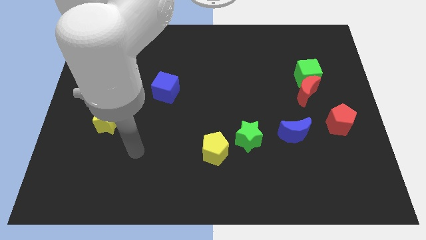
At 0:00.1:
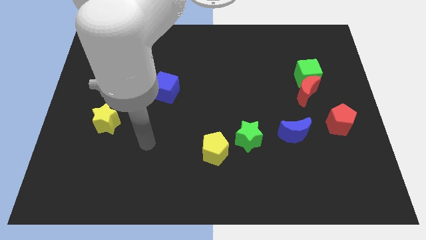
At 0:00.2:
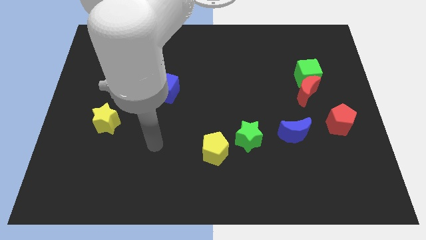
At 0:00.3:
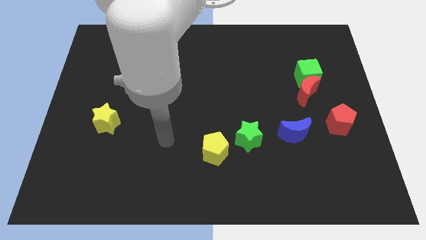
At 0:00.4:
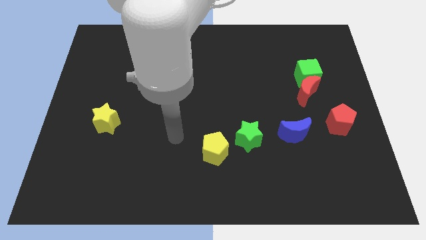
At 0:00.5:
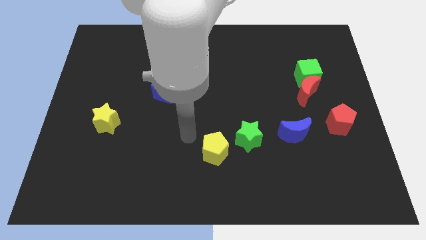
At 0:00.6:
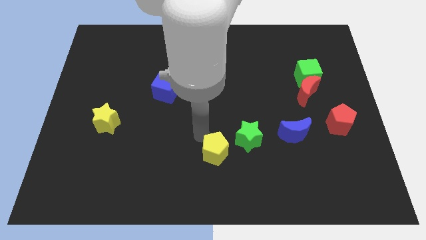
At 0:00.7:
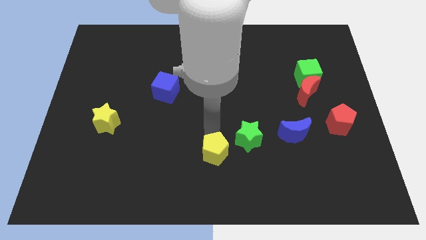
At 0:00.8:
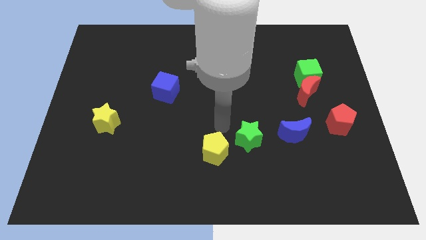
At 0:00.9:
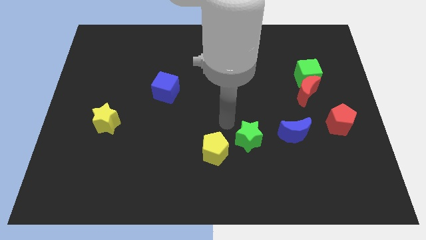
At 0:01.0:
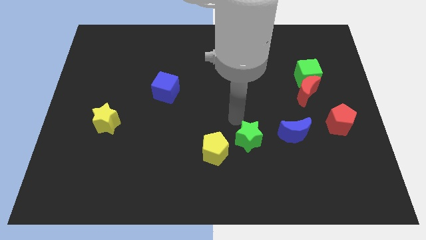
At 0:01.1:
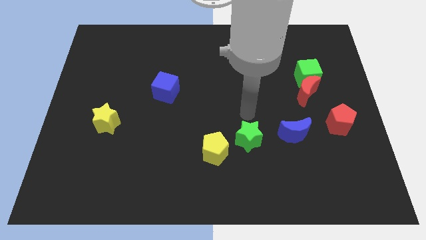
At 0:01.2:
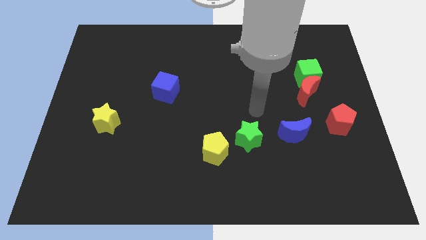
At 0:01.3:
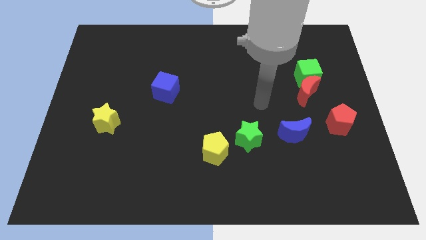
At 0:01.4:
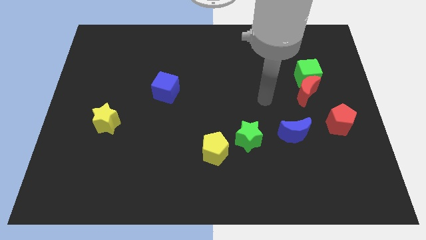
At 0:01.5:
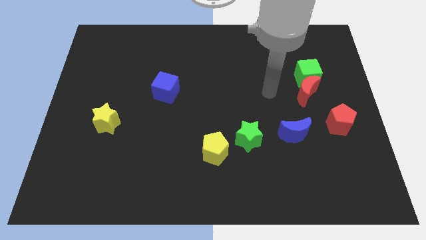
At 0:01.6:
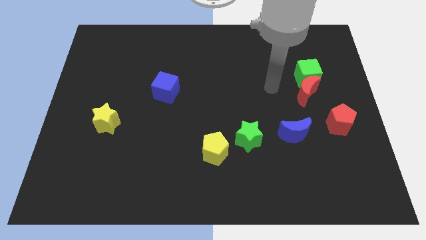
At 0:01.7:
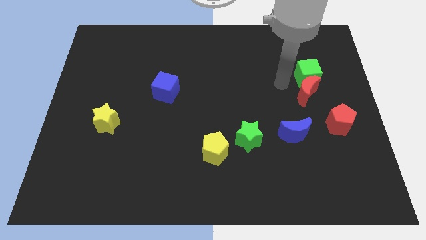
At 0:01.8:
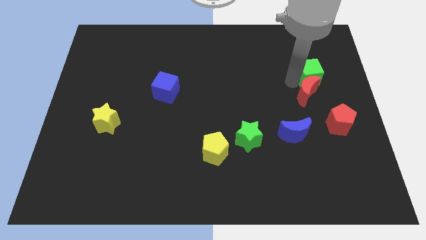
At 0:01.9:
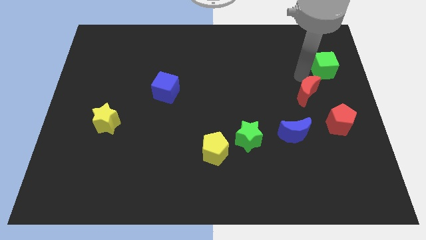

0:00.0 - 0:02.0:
separate the red moon from the green cube

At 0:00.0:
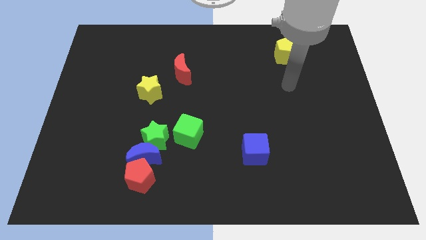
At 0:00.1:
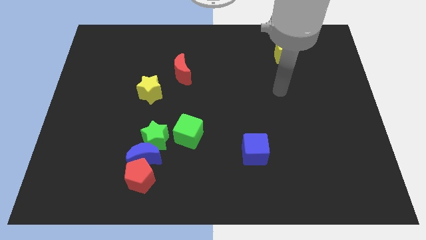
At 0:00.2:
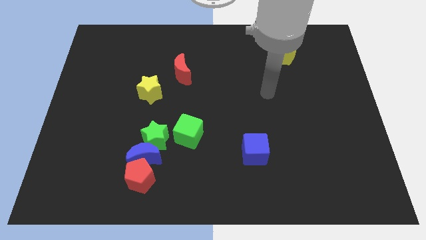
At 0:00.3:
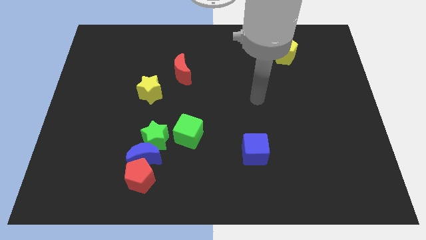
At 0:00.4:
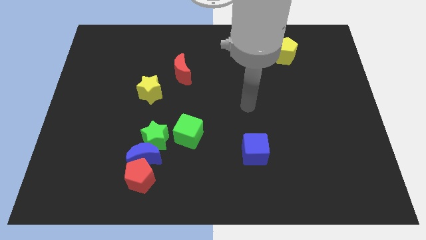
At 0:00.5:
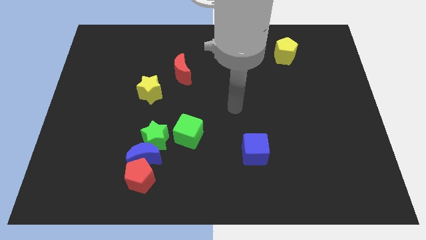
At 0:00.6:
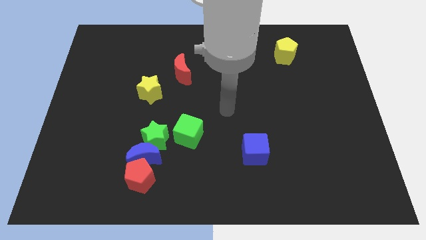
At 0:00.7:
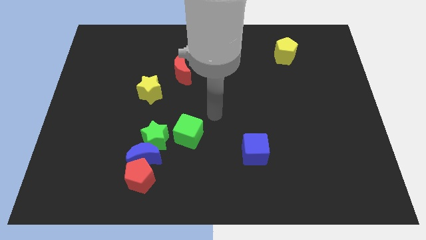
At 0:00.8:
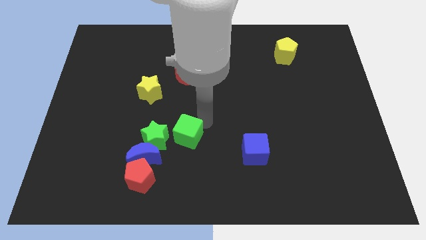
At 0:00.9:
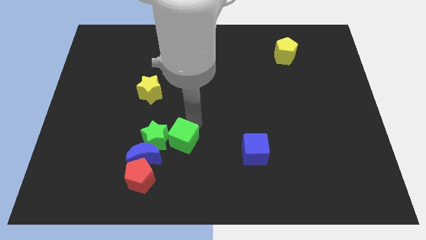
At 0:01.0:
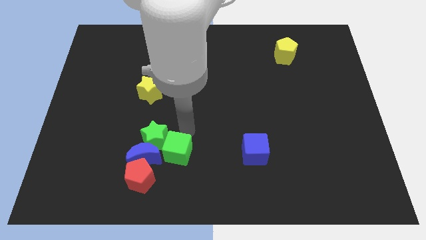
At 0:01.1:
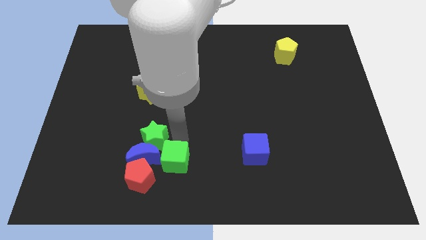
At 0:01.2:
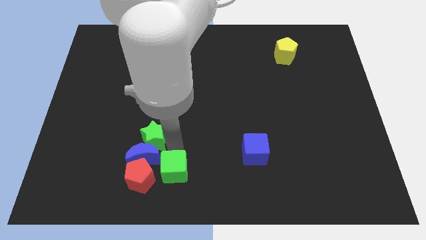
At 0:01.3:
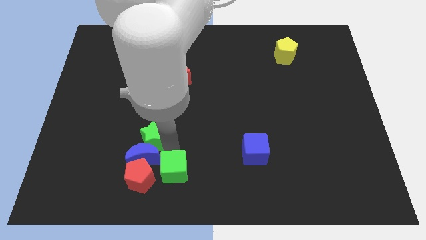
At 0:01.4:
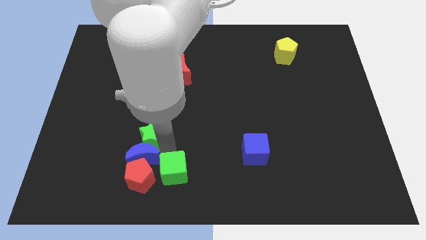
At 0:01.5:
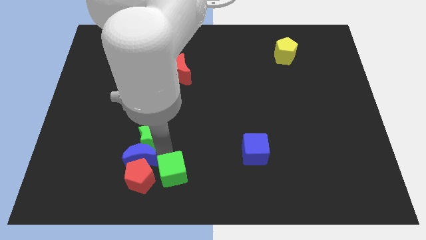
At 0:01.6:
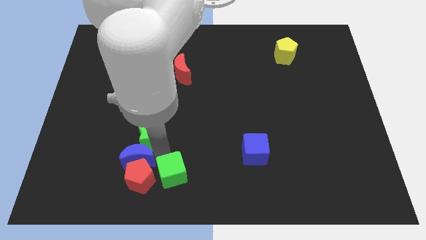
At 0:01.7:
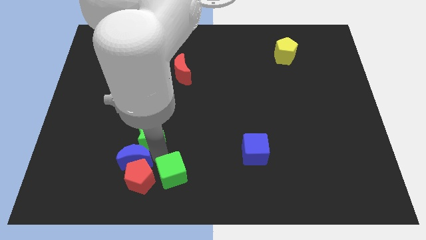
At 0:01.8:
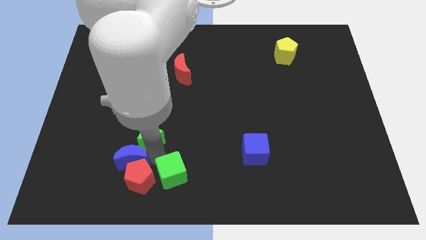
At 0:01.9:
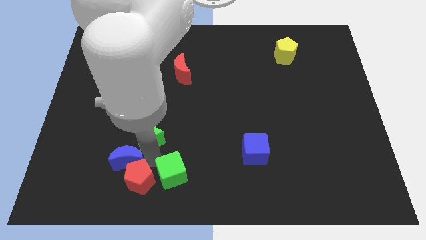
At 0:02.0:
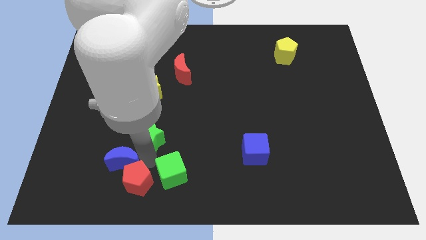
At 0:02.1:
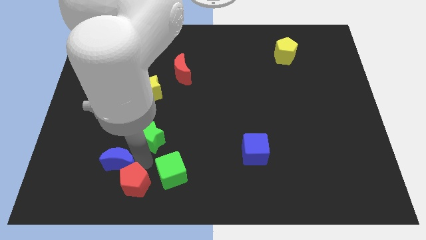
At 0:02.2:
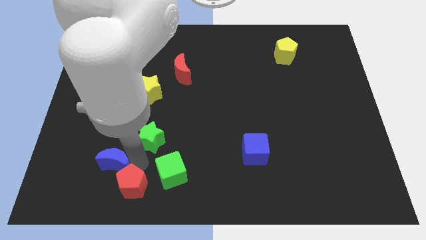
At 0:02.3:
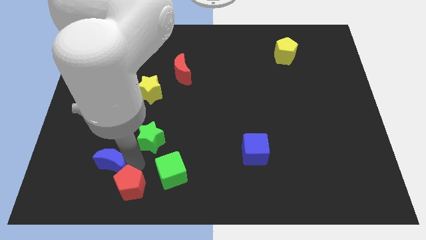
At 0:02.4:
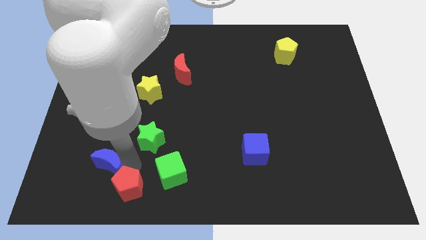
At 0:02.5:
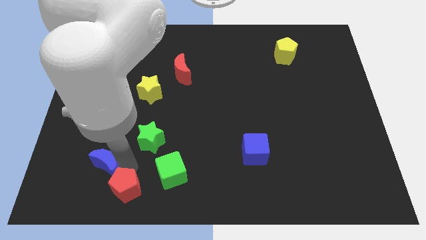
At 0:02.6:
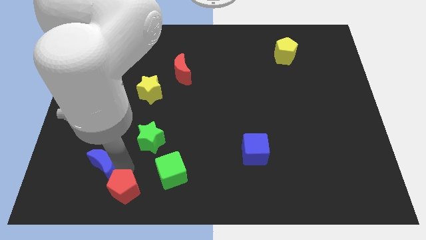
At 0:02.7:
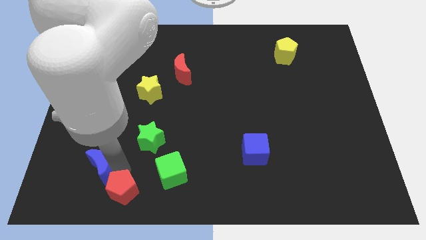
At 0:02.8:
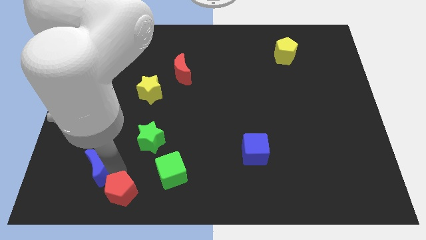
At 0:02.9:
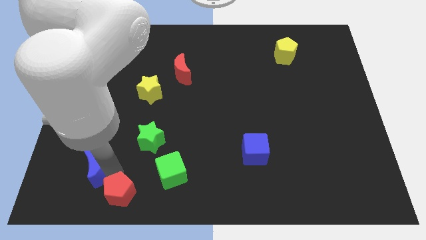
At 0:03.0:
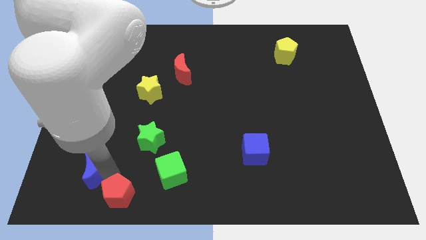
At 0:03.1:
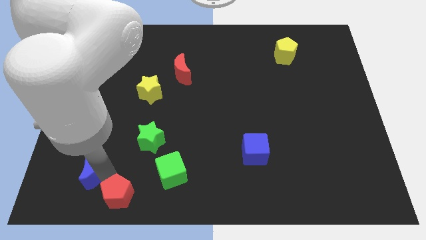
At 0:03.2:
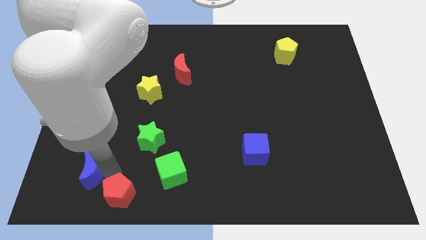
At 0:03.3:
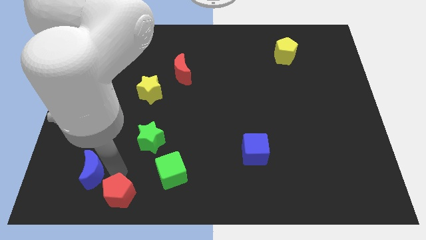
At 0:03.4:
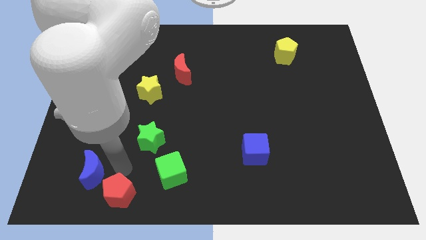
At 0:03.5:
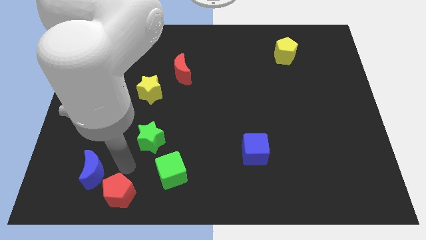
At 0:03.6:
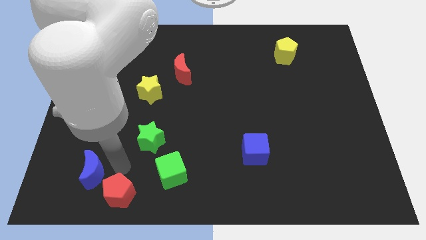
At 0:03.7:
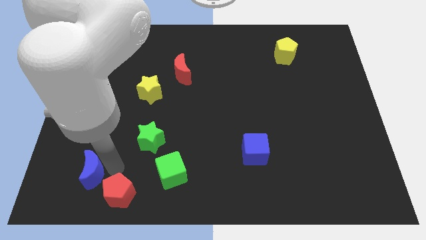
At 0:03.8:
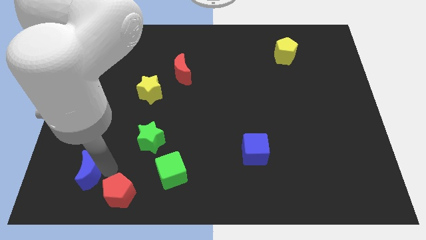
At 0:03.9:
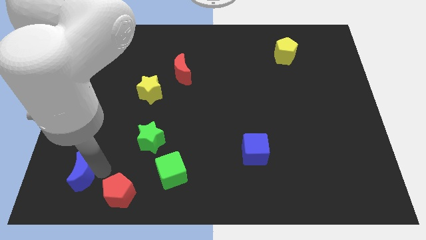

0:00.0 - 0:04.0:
move the blue moon away from the red pentagon and green star

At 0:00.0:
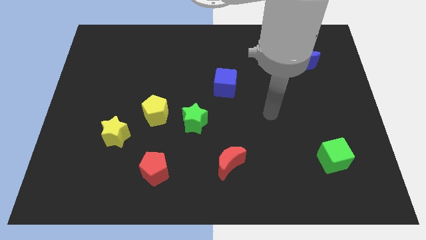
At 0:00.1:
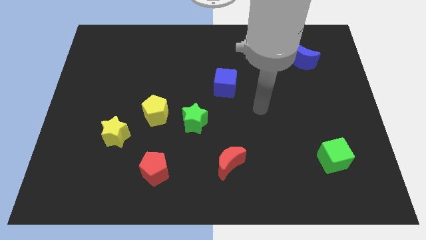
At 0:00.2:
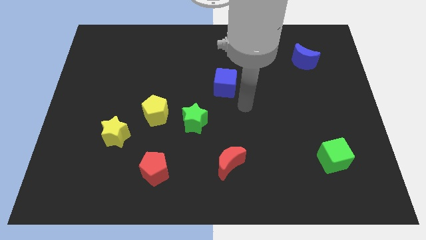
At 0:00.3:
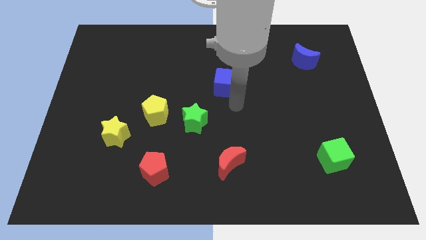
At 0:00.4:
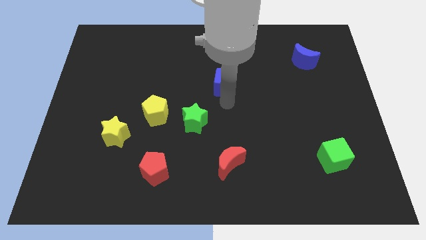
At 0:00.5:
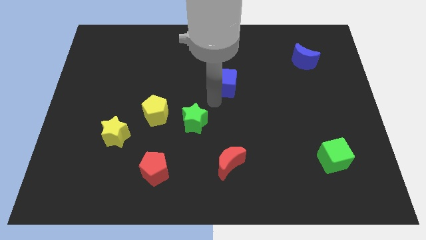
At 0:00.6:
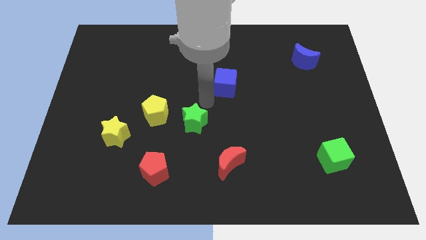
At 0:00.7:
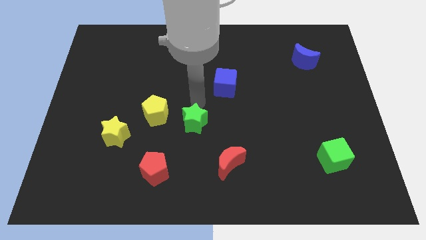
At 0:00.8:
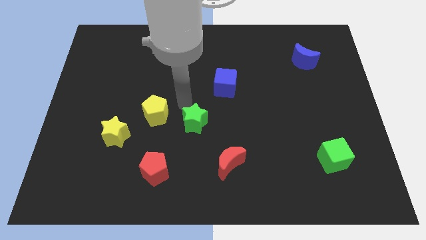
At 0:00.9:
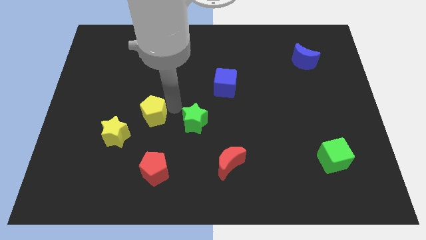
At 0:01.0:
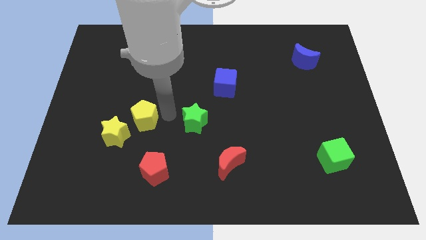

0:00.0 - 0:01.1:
separate the green star from the yellow pentagon

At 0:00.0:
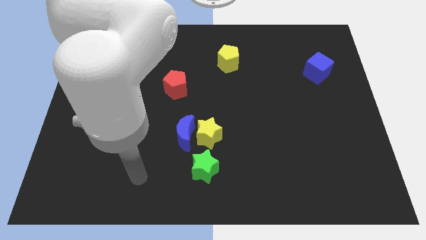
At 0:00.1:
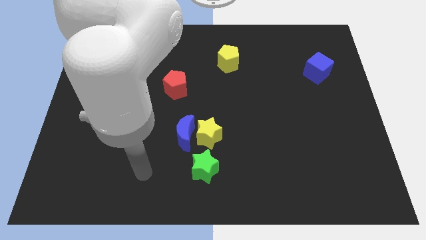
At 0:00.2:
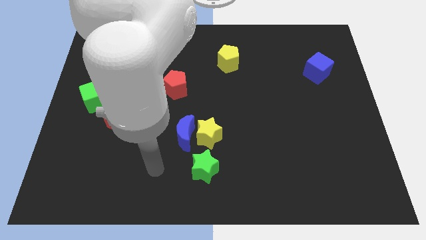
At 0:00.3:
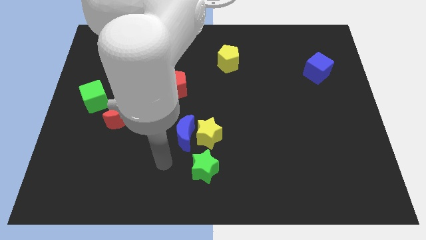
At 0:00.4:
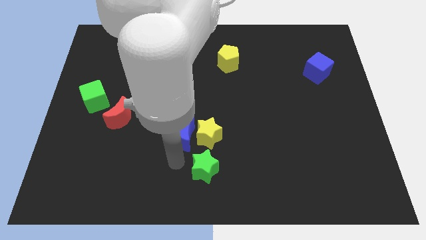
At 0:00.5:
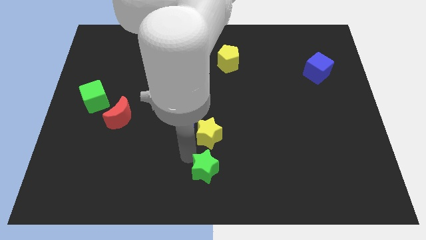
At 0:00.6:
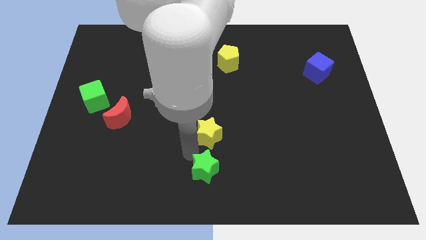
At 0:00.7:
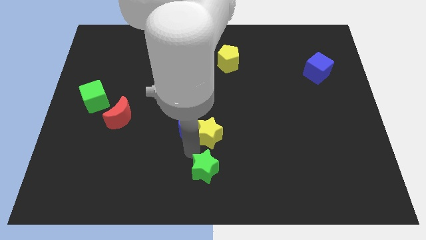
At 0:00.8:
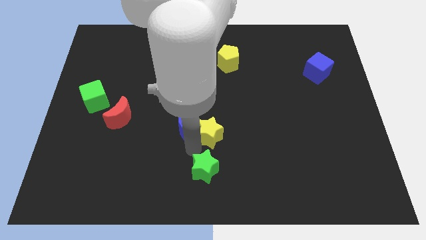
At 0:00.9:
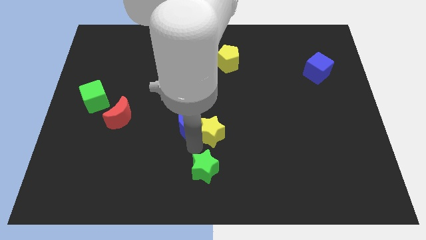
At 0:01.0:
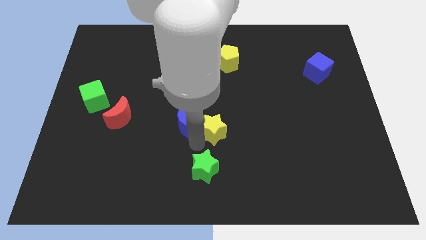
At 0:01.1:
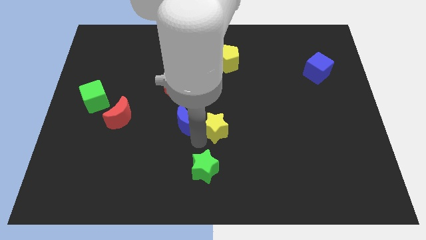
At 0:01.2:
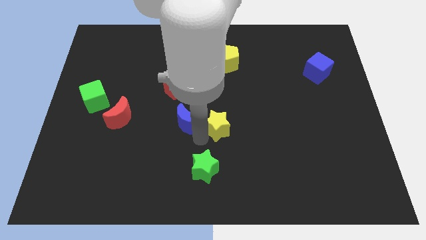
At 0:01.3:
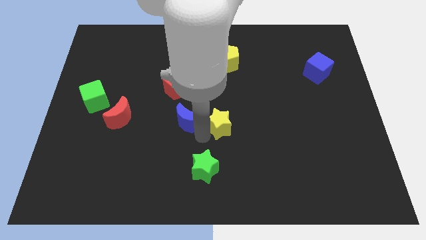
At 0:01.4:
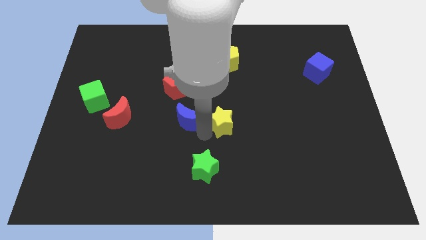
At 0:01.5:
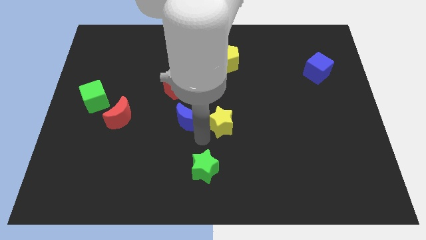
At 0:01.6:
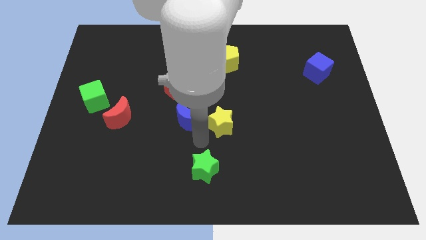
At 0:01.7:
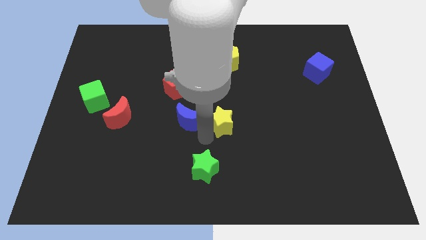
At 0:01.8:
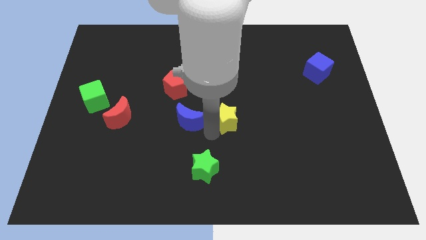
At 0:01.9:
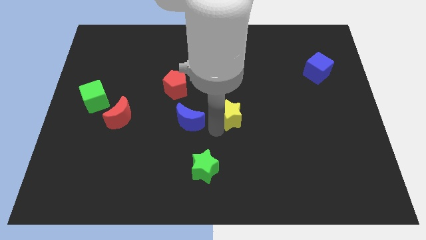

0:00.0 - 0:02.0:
pull the yellow star apart from the blue moon and green star

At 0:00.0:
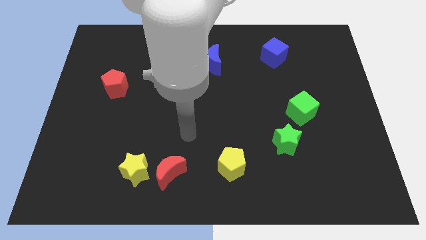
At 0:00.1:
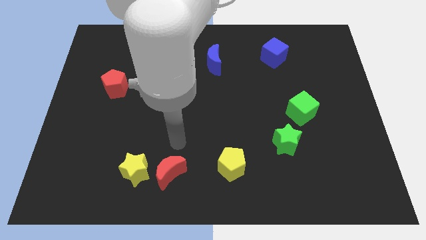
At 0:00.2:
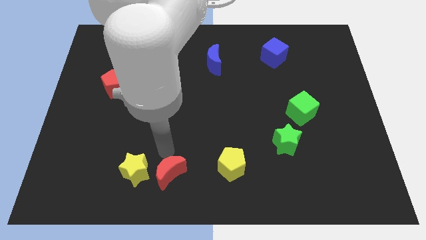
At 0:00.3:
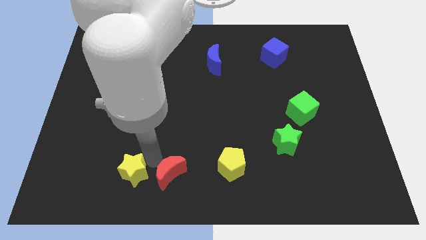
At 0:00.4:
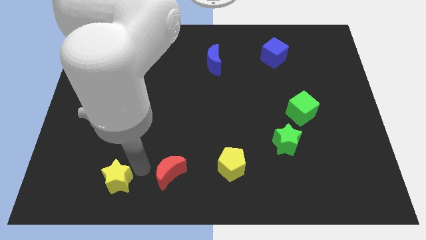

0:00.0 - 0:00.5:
pull the red moon apart from the yellow star
